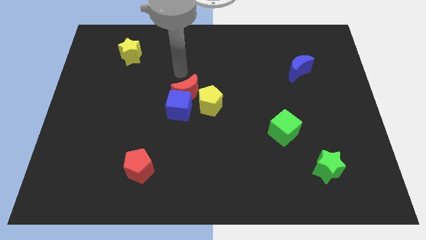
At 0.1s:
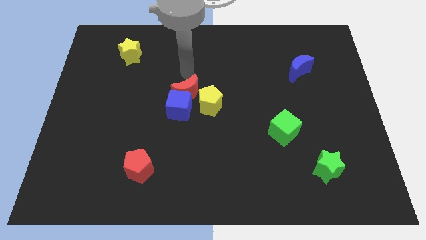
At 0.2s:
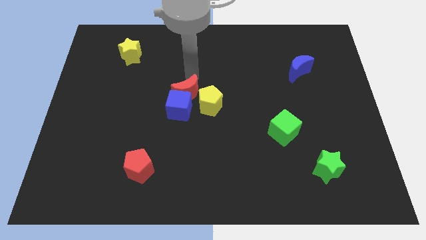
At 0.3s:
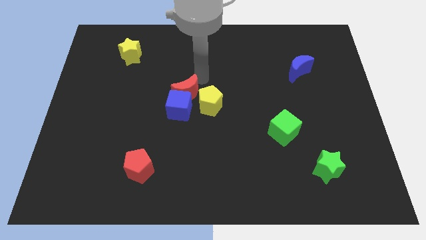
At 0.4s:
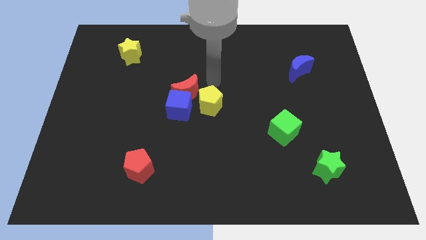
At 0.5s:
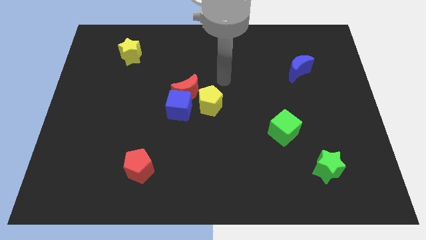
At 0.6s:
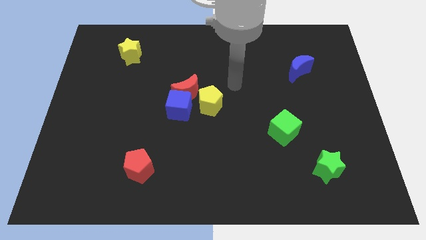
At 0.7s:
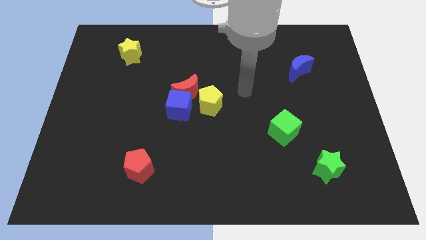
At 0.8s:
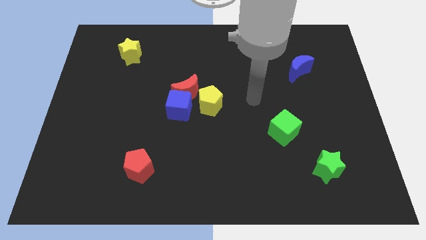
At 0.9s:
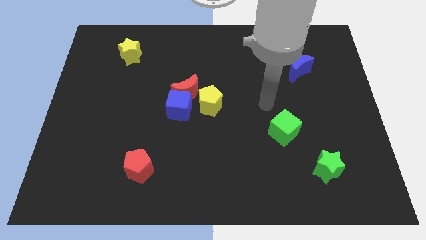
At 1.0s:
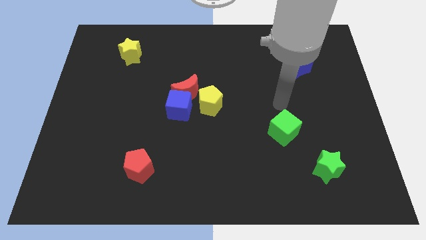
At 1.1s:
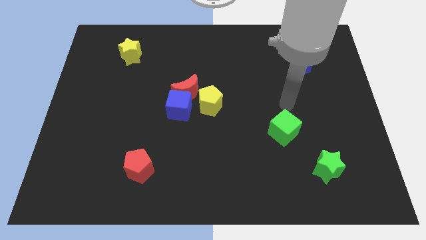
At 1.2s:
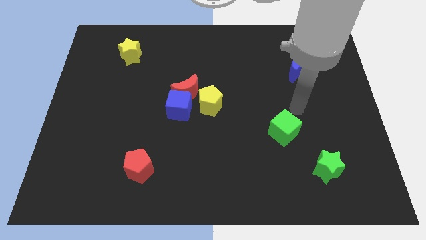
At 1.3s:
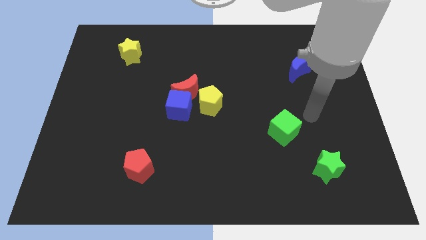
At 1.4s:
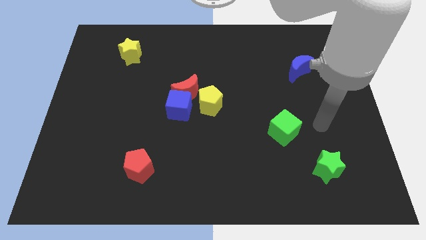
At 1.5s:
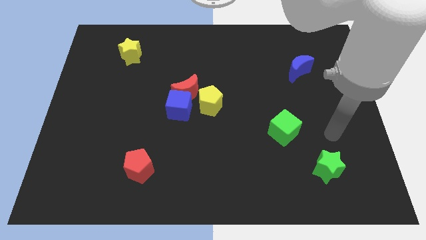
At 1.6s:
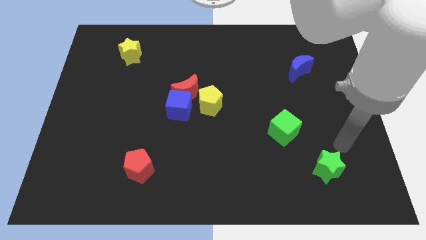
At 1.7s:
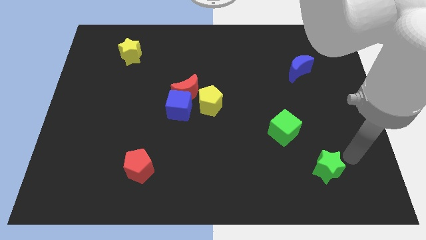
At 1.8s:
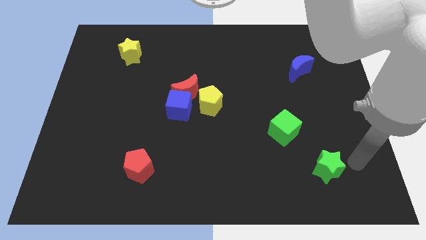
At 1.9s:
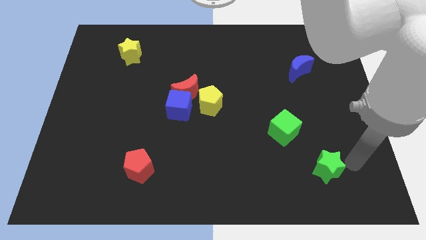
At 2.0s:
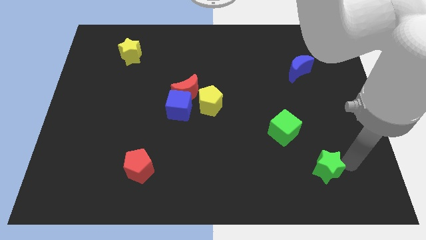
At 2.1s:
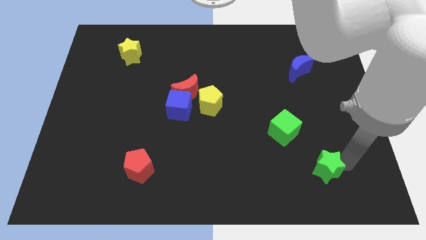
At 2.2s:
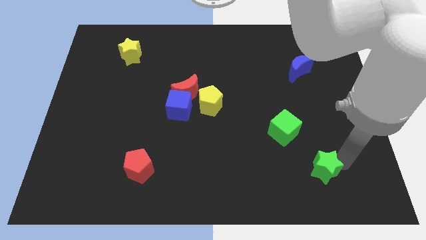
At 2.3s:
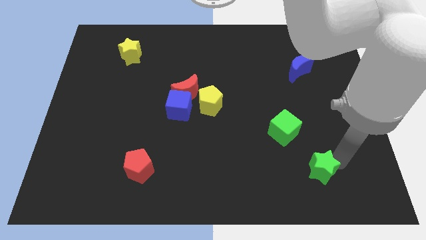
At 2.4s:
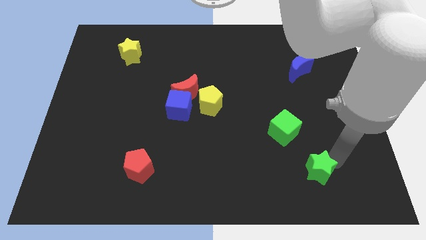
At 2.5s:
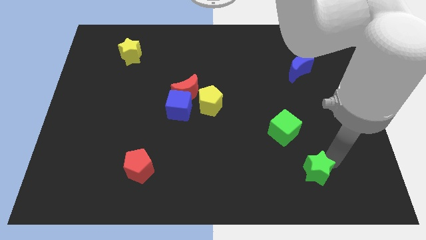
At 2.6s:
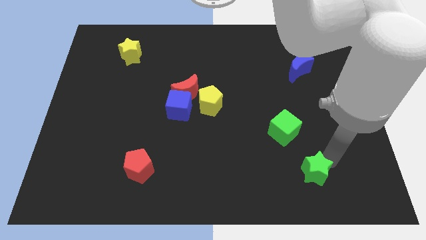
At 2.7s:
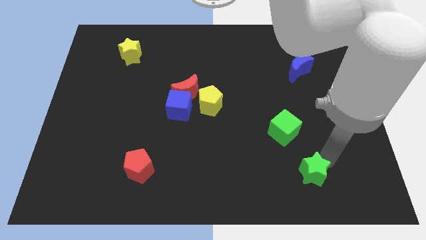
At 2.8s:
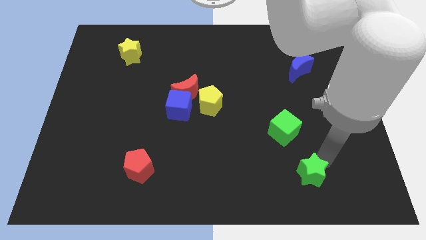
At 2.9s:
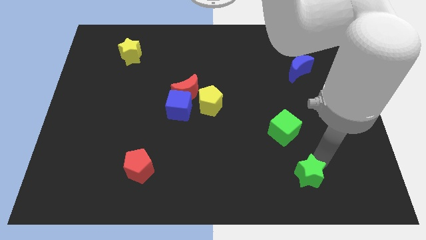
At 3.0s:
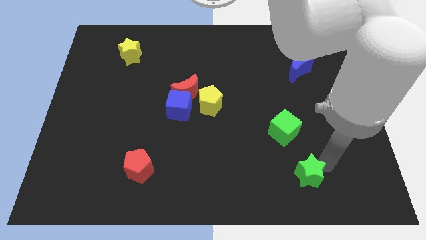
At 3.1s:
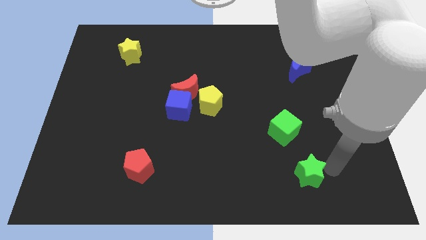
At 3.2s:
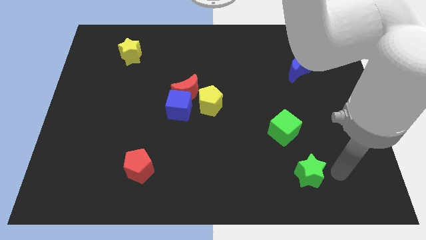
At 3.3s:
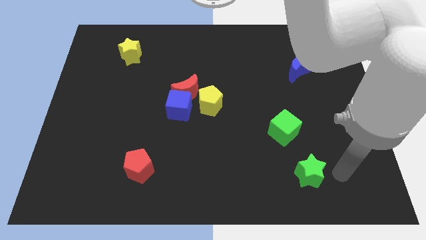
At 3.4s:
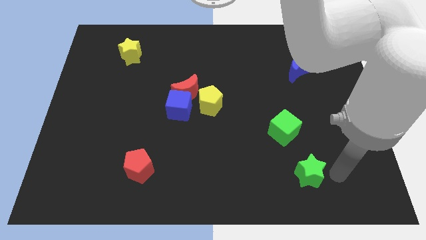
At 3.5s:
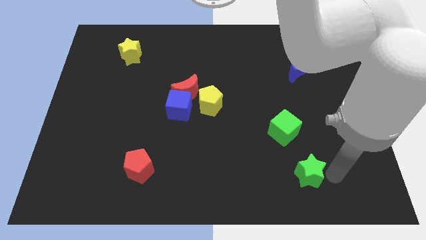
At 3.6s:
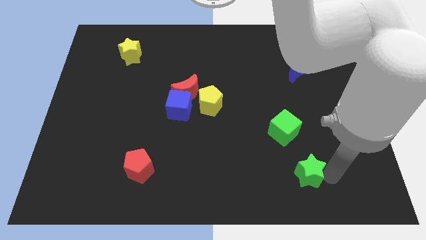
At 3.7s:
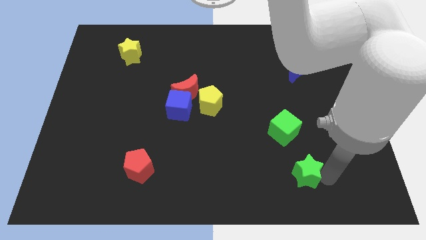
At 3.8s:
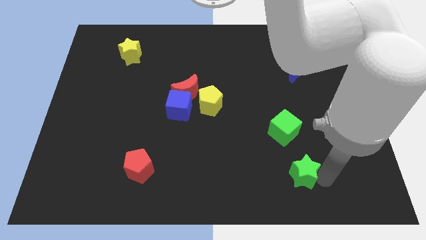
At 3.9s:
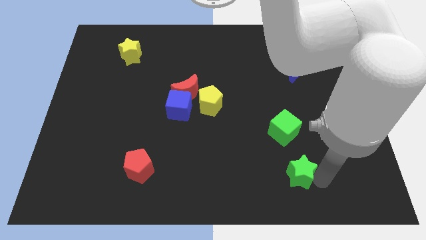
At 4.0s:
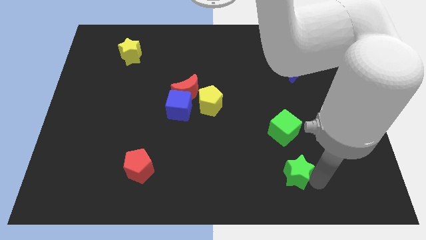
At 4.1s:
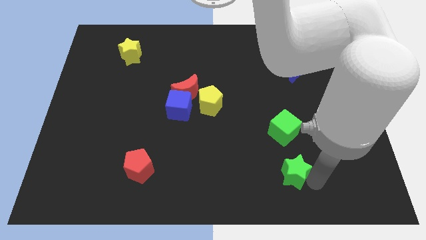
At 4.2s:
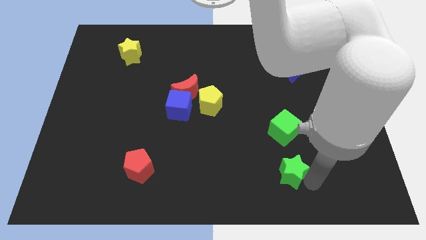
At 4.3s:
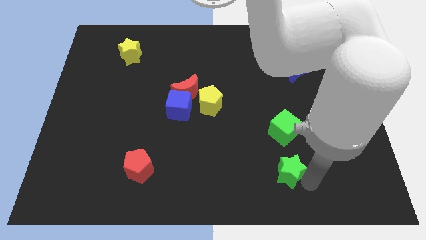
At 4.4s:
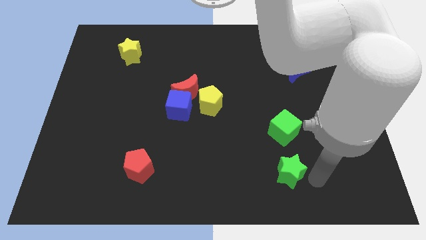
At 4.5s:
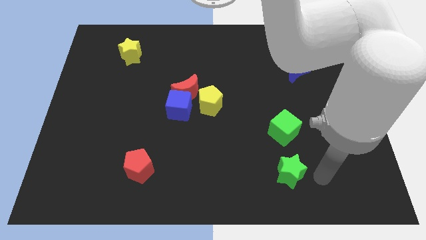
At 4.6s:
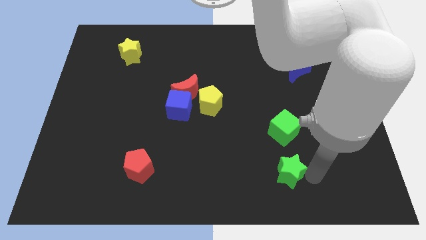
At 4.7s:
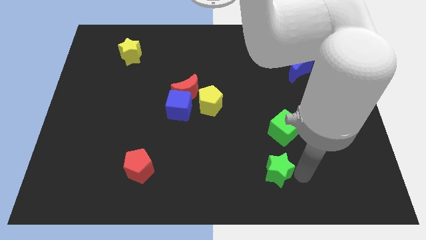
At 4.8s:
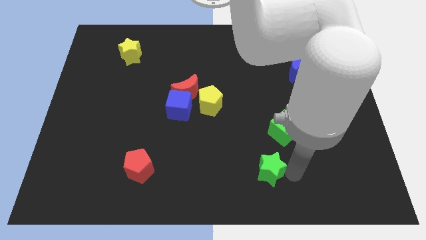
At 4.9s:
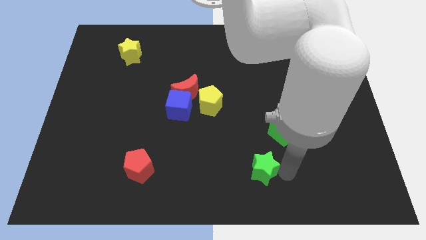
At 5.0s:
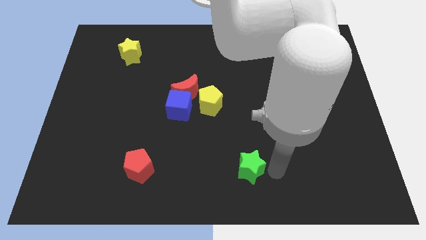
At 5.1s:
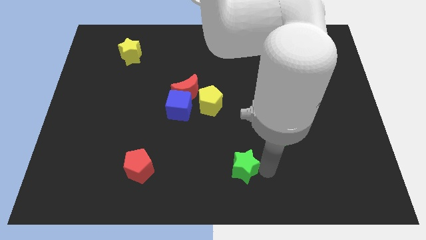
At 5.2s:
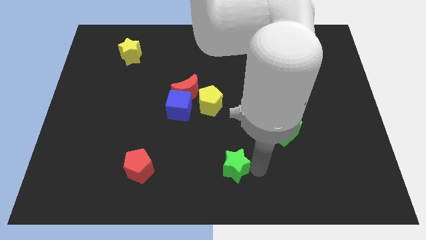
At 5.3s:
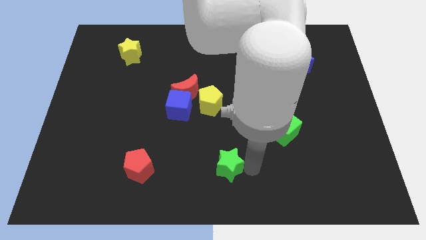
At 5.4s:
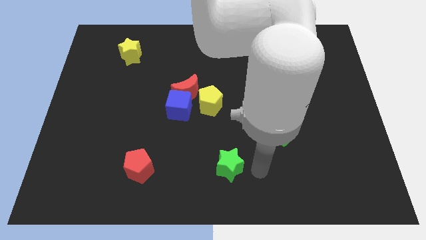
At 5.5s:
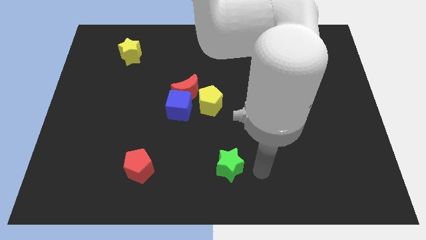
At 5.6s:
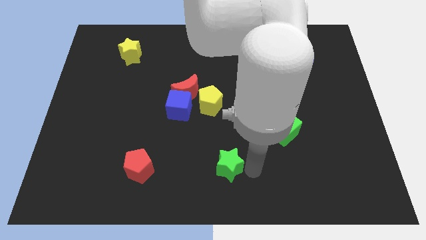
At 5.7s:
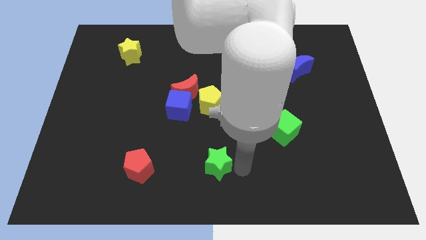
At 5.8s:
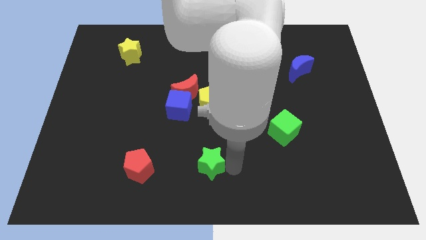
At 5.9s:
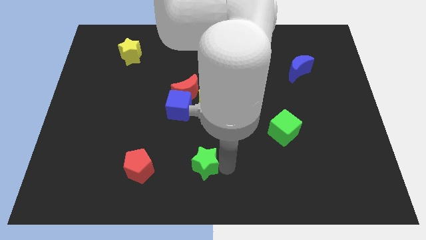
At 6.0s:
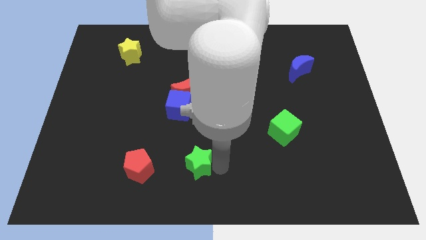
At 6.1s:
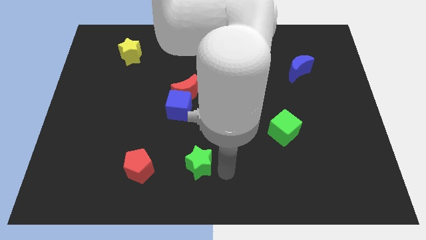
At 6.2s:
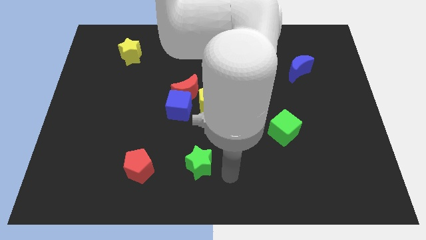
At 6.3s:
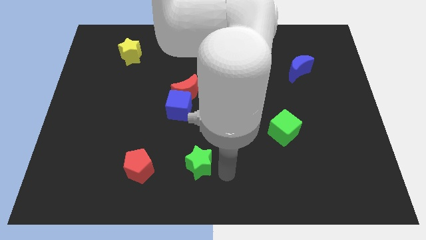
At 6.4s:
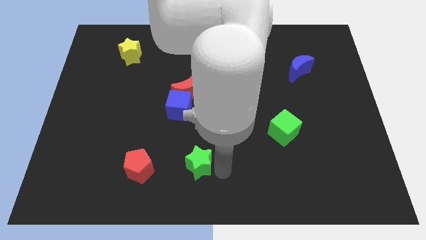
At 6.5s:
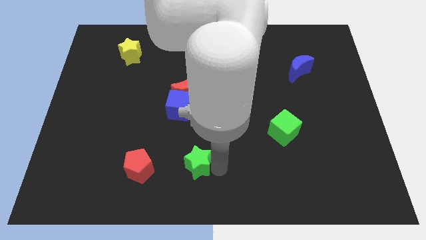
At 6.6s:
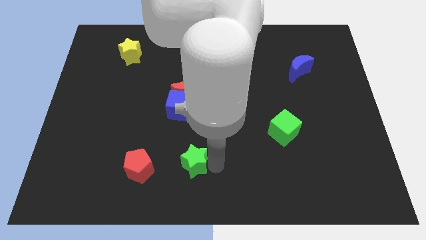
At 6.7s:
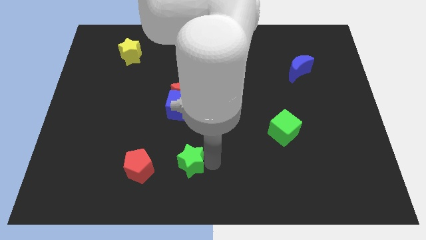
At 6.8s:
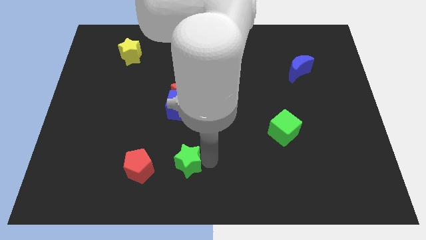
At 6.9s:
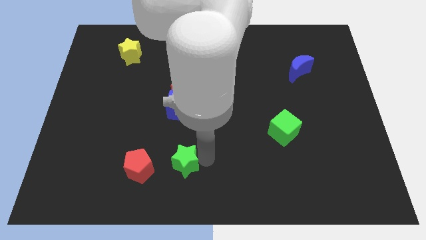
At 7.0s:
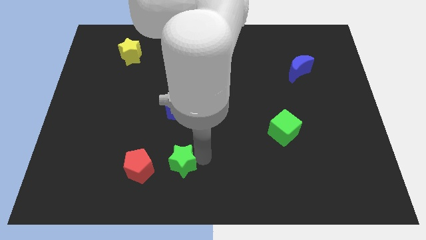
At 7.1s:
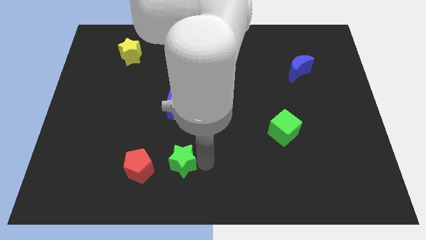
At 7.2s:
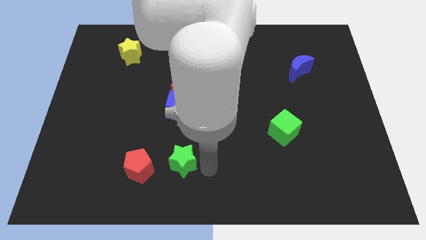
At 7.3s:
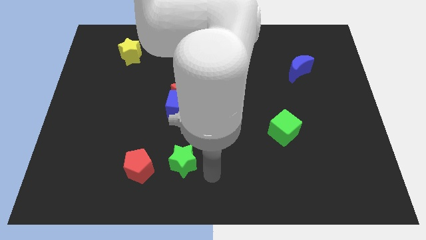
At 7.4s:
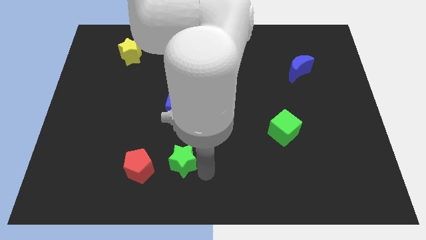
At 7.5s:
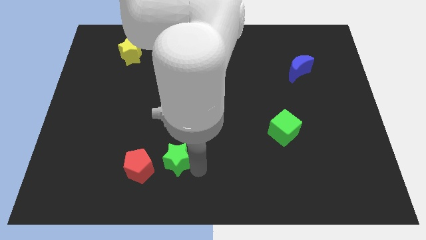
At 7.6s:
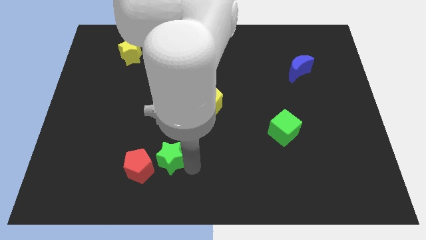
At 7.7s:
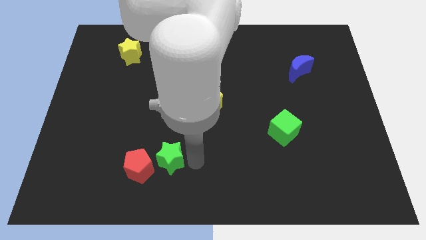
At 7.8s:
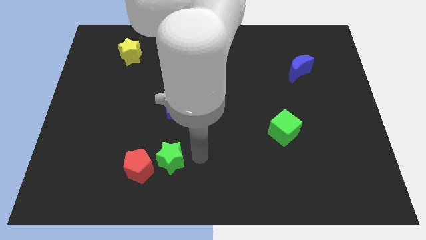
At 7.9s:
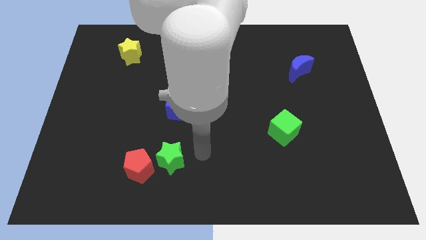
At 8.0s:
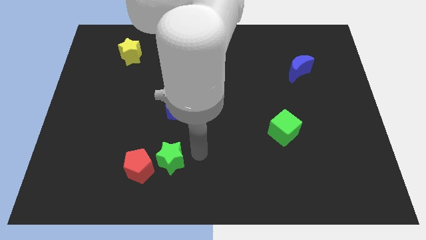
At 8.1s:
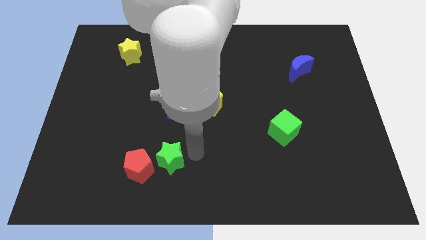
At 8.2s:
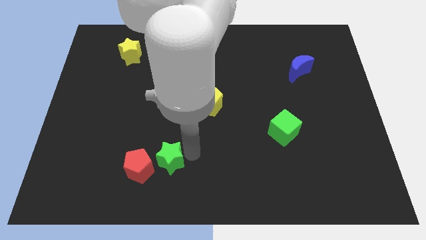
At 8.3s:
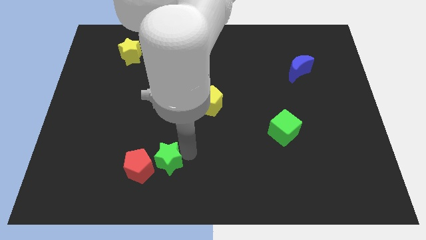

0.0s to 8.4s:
move the green star close to the red pentagon
